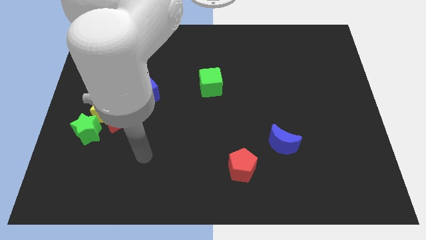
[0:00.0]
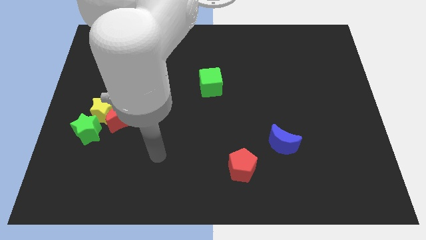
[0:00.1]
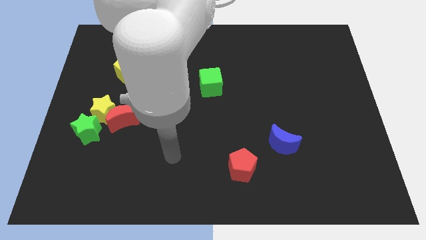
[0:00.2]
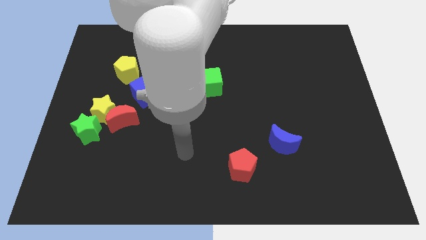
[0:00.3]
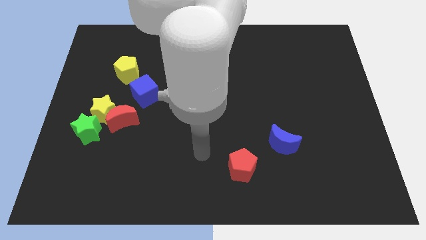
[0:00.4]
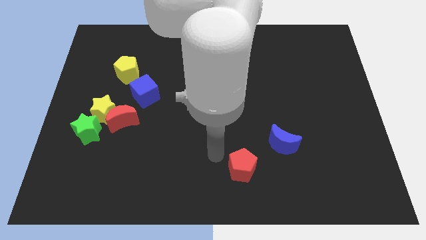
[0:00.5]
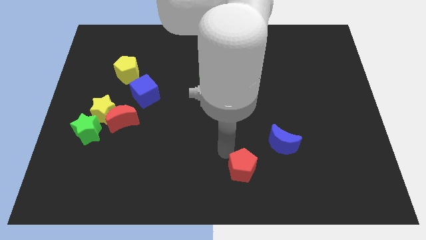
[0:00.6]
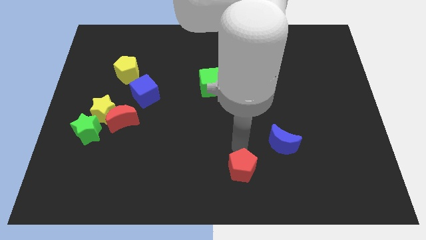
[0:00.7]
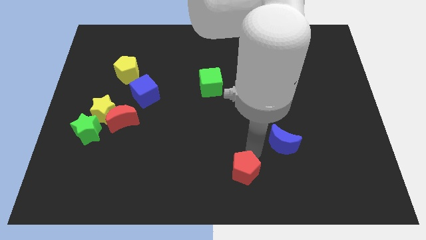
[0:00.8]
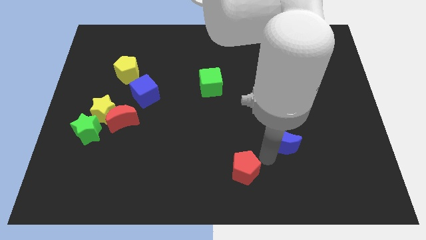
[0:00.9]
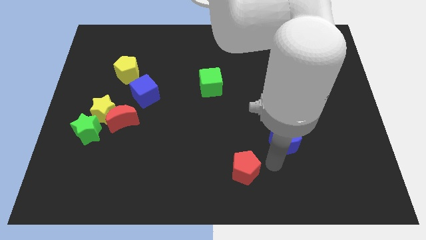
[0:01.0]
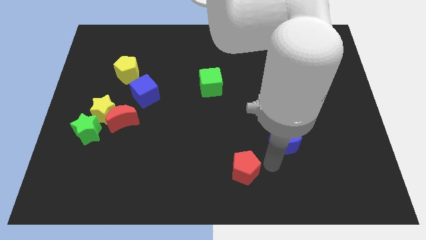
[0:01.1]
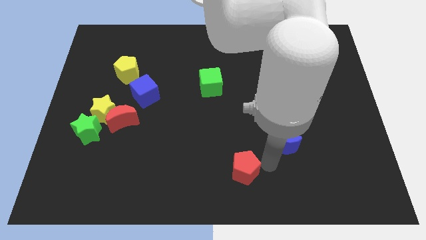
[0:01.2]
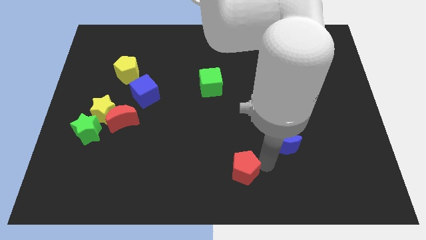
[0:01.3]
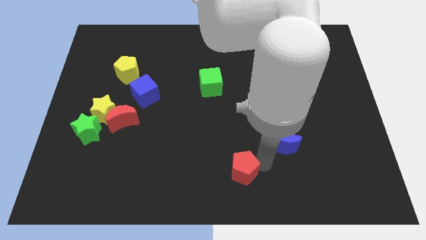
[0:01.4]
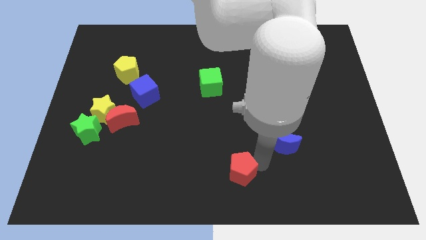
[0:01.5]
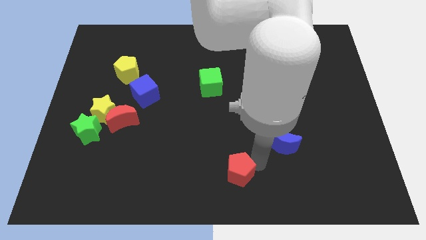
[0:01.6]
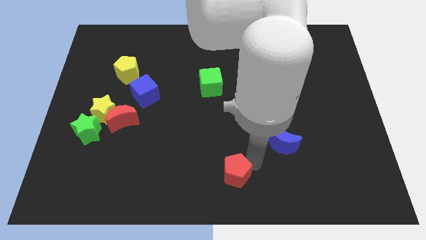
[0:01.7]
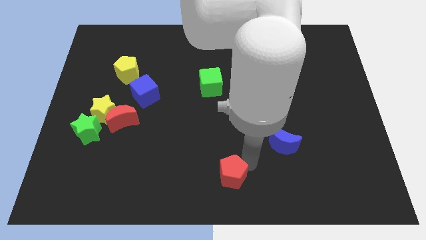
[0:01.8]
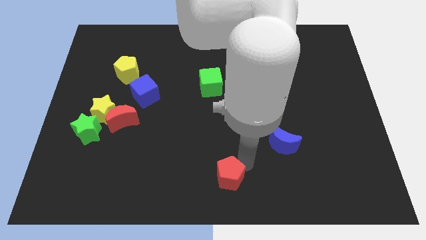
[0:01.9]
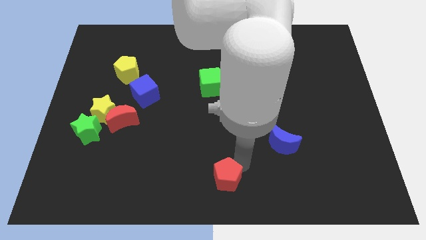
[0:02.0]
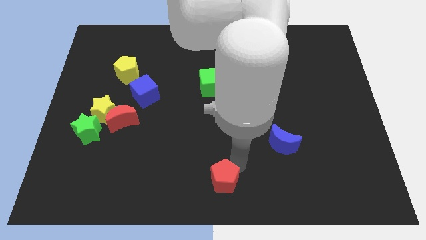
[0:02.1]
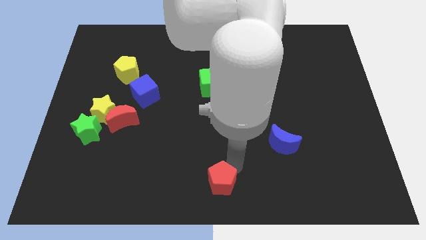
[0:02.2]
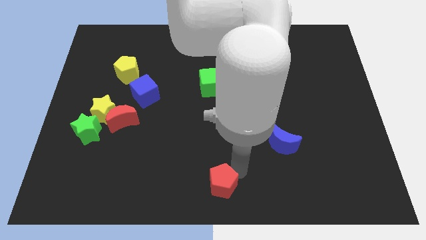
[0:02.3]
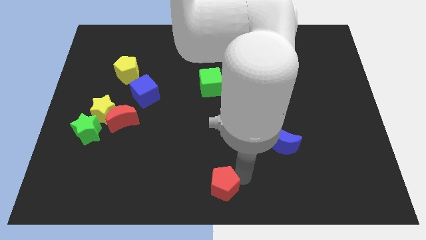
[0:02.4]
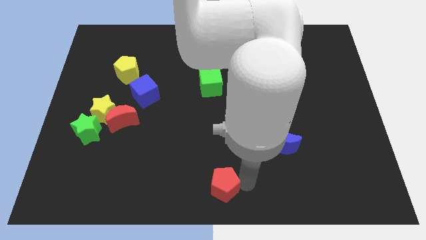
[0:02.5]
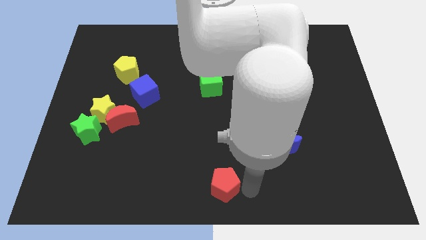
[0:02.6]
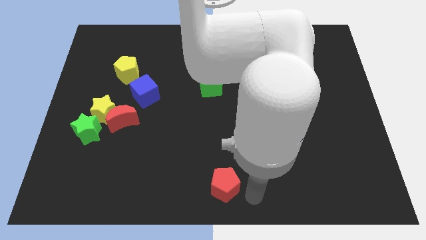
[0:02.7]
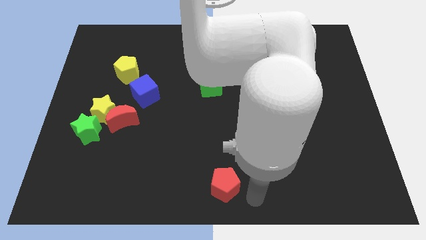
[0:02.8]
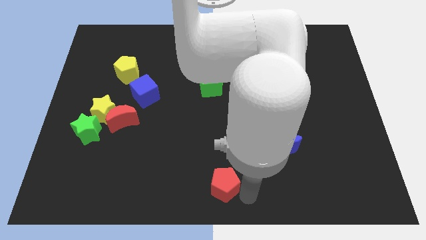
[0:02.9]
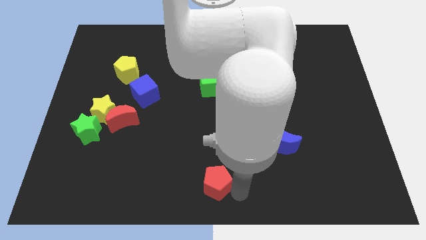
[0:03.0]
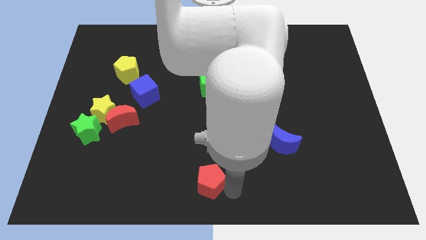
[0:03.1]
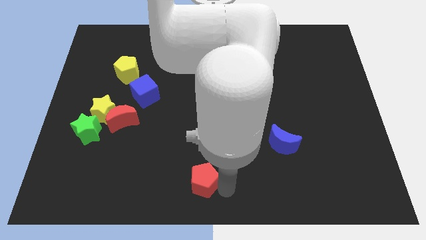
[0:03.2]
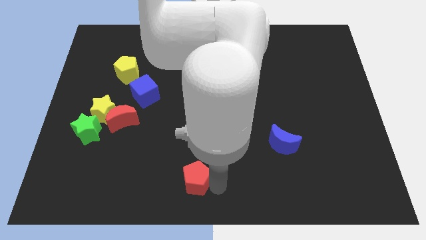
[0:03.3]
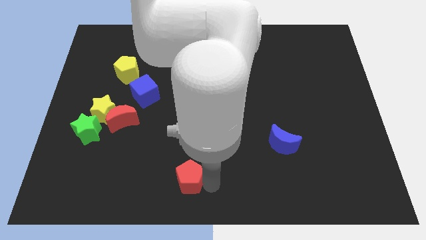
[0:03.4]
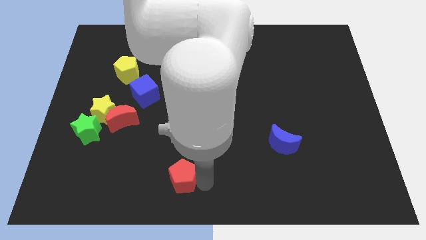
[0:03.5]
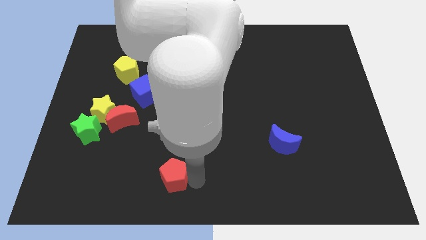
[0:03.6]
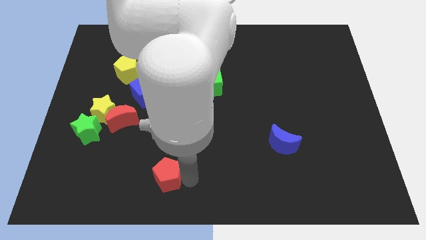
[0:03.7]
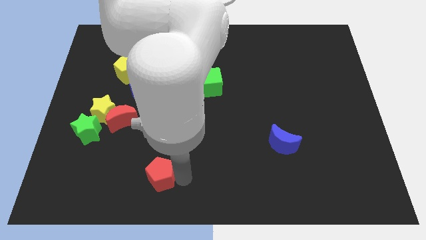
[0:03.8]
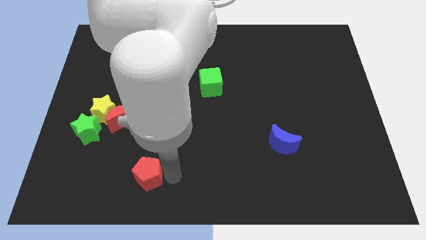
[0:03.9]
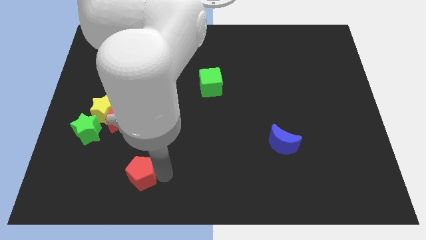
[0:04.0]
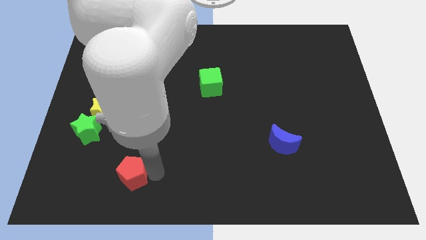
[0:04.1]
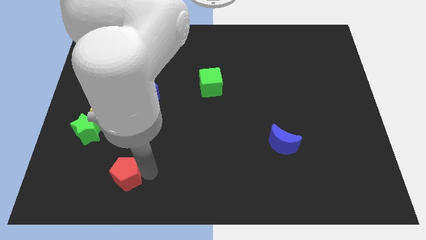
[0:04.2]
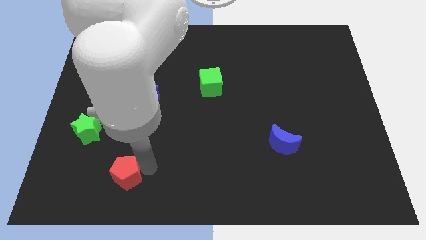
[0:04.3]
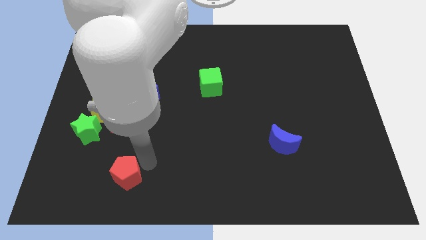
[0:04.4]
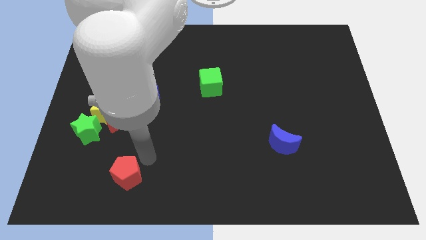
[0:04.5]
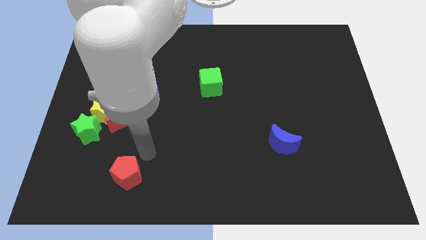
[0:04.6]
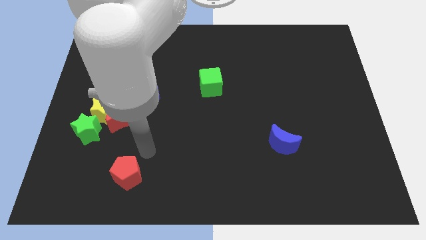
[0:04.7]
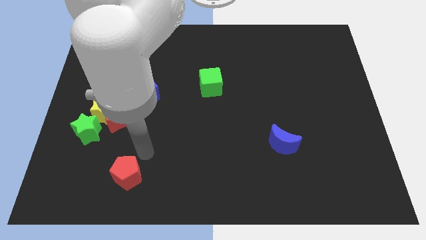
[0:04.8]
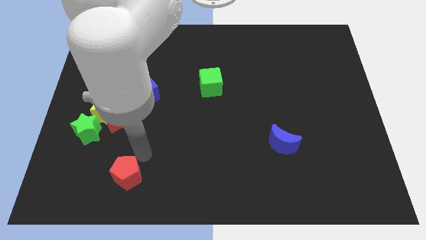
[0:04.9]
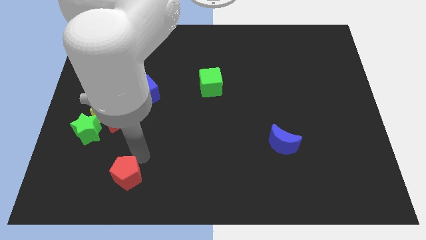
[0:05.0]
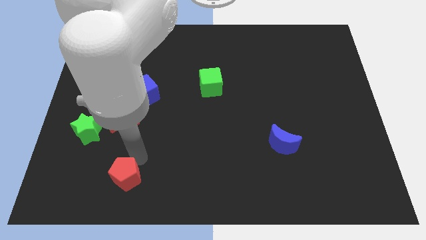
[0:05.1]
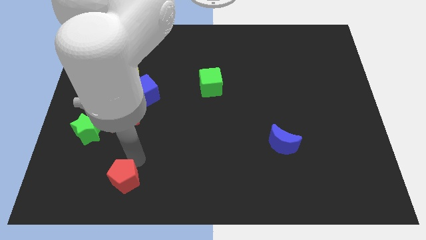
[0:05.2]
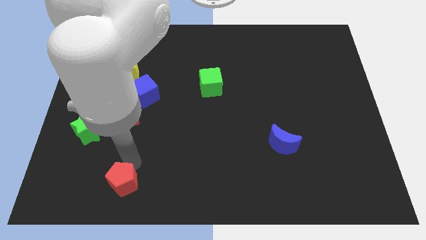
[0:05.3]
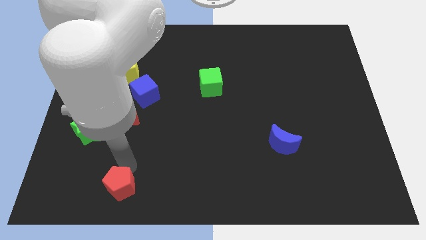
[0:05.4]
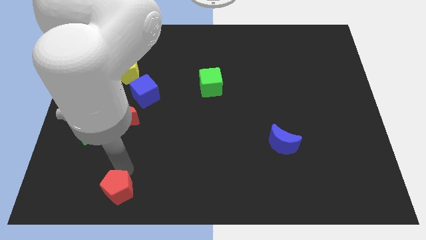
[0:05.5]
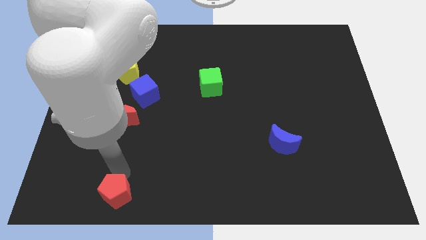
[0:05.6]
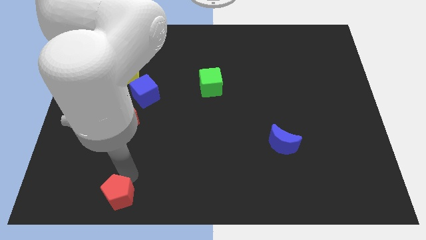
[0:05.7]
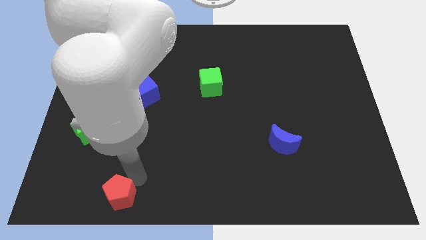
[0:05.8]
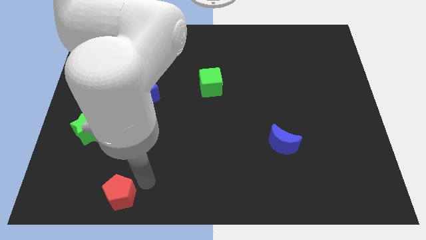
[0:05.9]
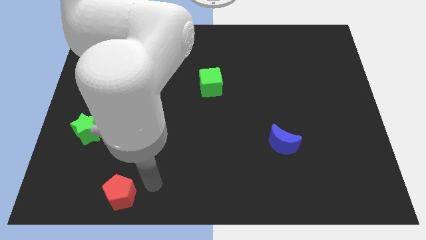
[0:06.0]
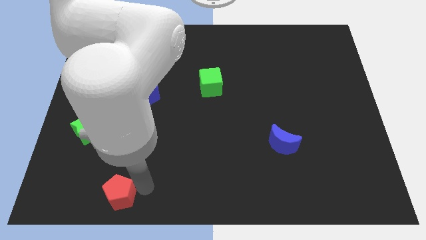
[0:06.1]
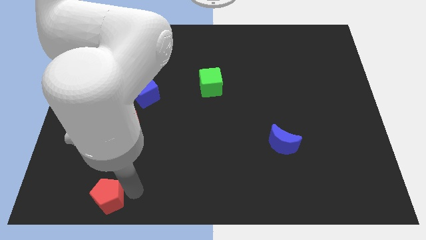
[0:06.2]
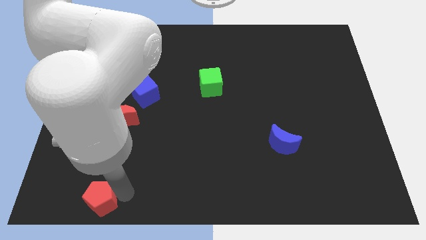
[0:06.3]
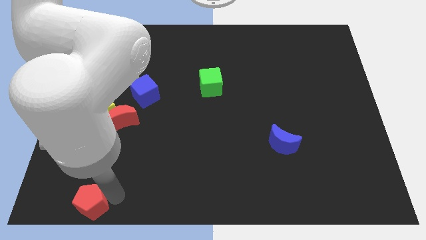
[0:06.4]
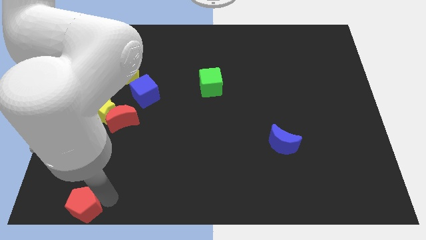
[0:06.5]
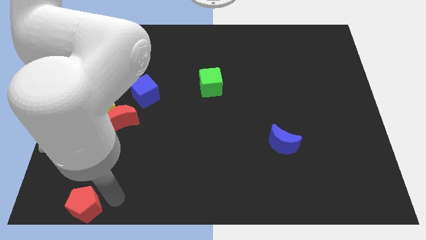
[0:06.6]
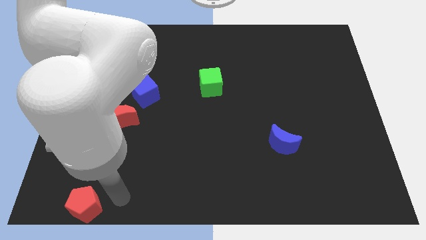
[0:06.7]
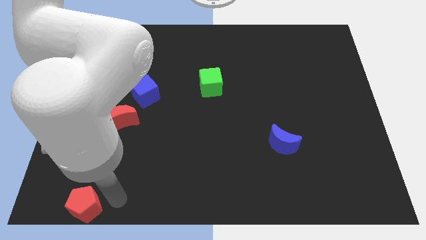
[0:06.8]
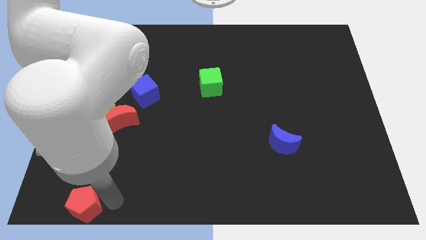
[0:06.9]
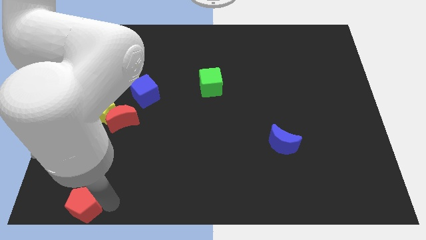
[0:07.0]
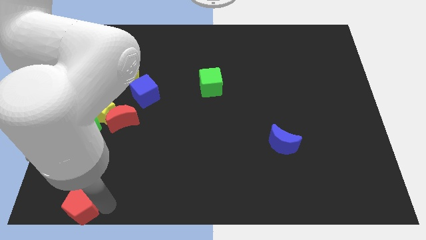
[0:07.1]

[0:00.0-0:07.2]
put the red pentagon to the bottom left corner
